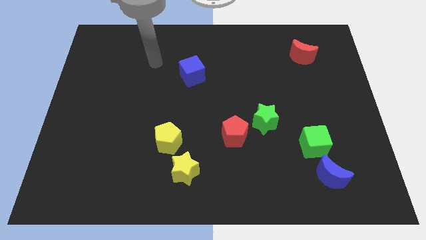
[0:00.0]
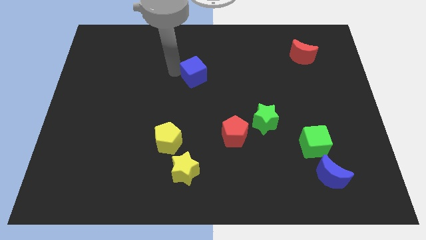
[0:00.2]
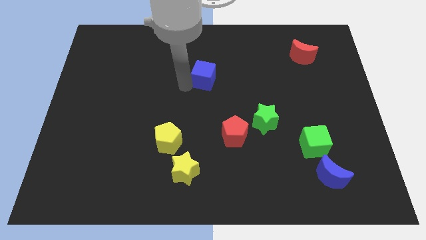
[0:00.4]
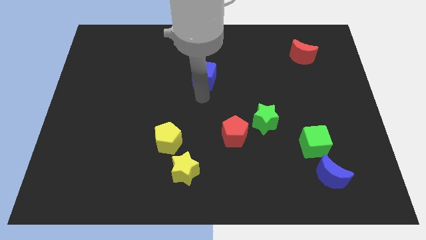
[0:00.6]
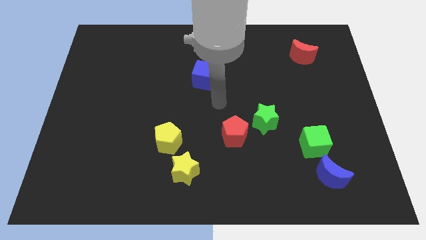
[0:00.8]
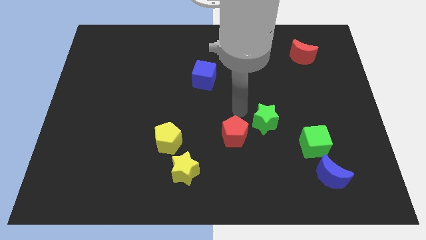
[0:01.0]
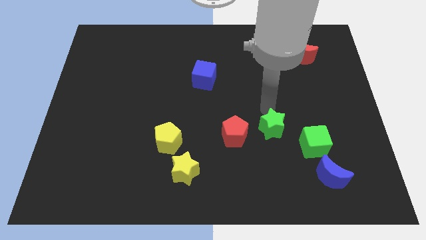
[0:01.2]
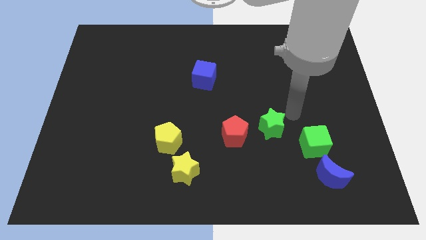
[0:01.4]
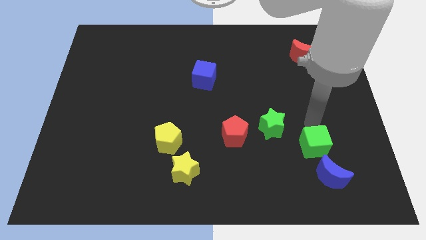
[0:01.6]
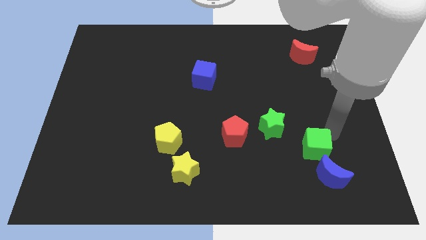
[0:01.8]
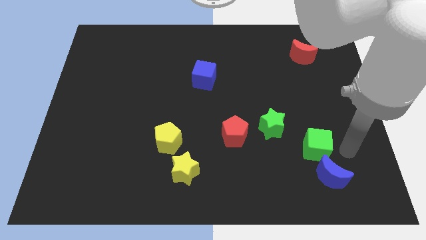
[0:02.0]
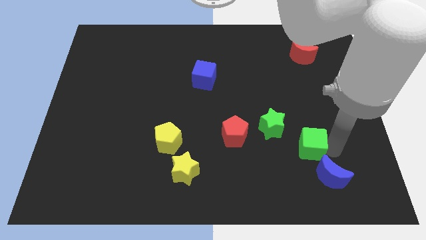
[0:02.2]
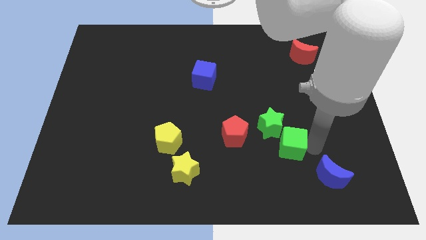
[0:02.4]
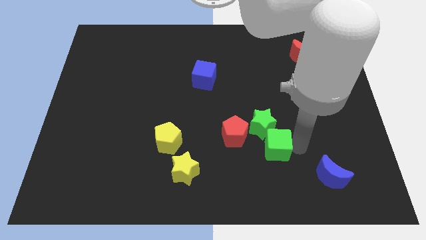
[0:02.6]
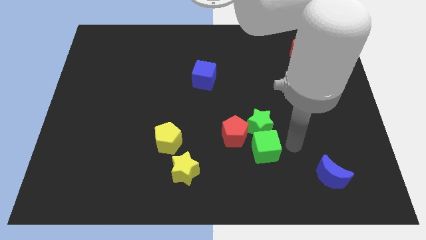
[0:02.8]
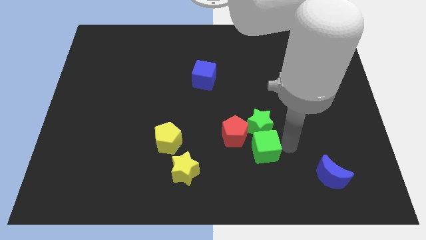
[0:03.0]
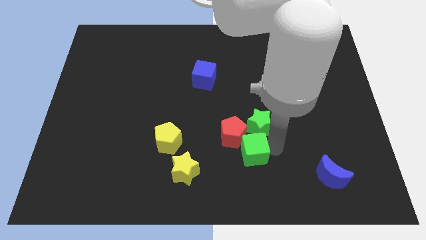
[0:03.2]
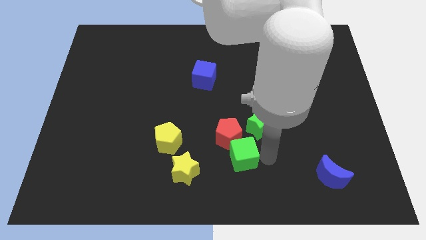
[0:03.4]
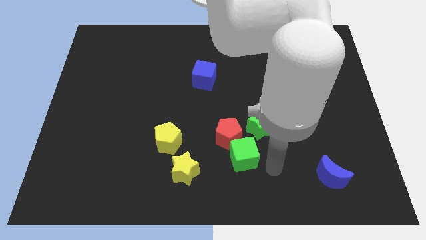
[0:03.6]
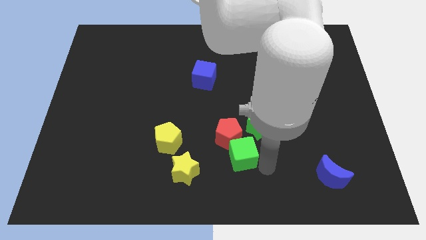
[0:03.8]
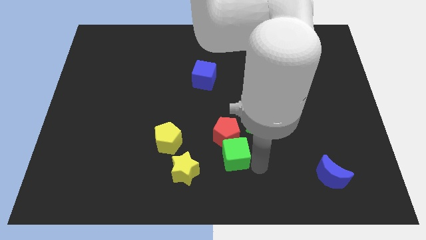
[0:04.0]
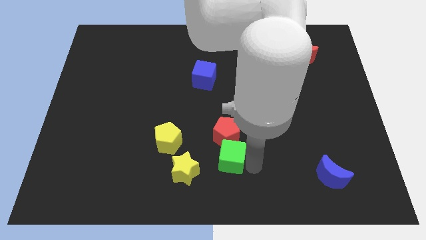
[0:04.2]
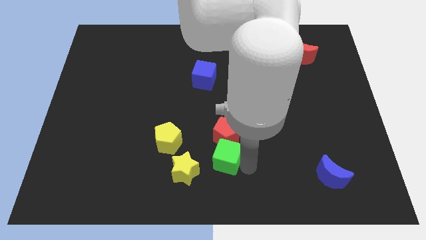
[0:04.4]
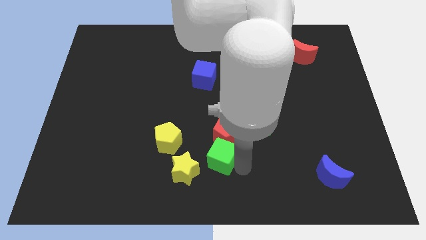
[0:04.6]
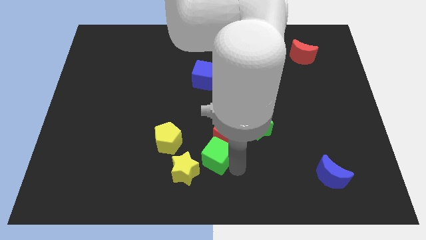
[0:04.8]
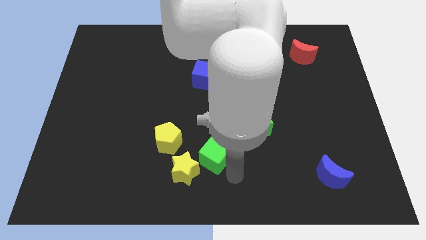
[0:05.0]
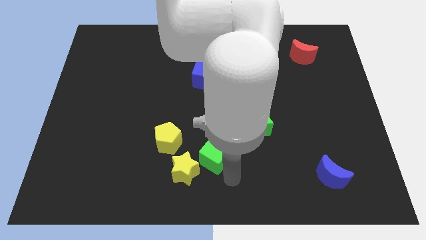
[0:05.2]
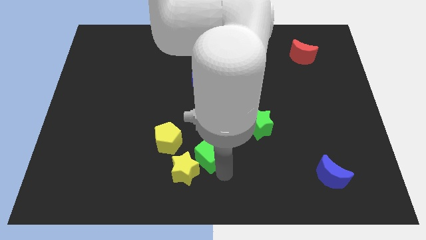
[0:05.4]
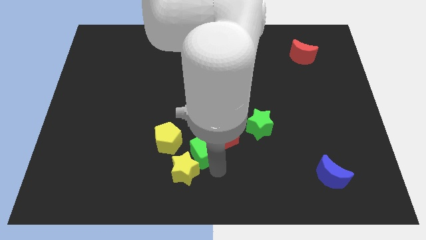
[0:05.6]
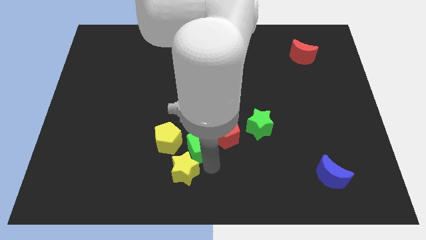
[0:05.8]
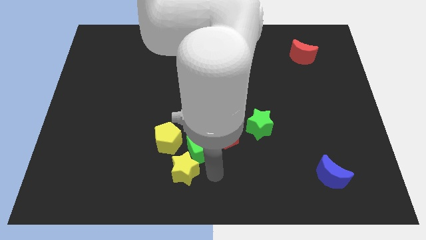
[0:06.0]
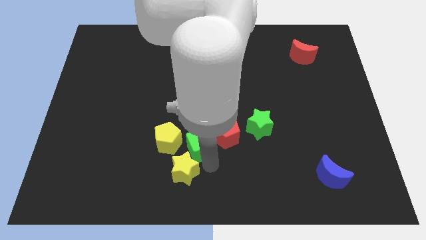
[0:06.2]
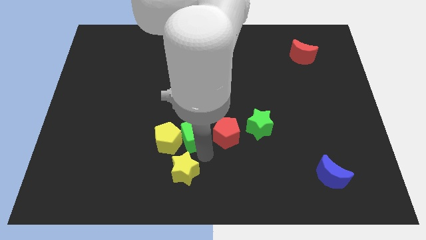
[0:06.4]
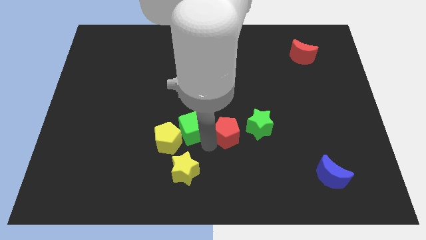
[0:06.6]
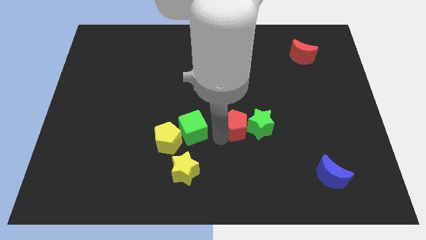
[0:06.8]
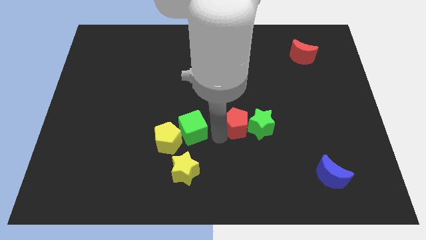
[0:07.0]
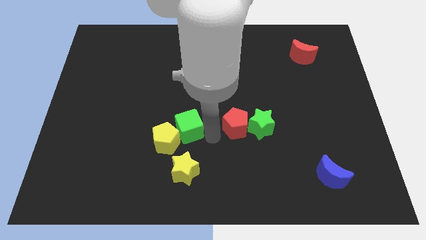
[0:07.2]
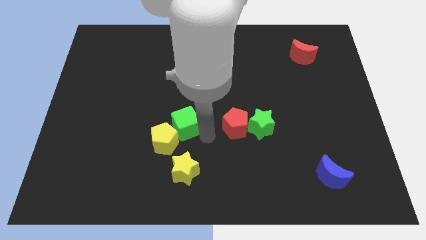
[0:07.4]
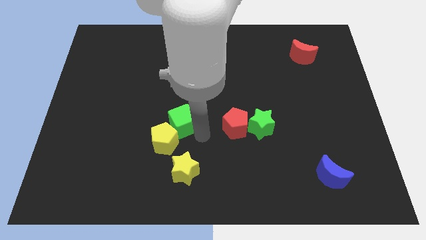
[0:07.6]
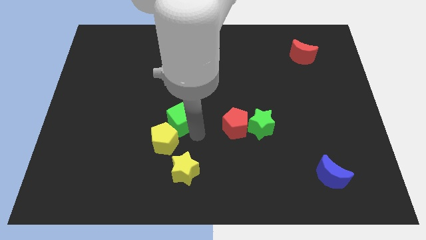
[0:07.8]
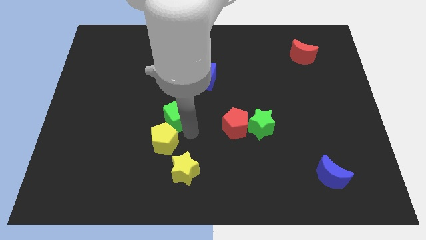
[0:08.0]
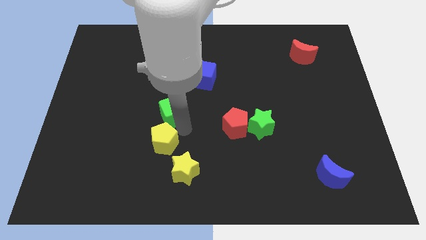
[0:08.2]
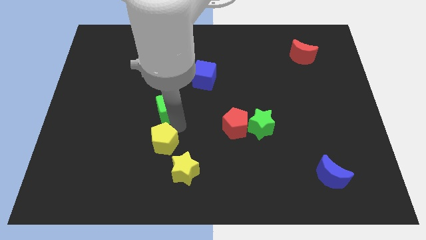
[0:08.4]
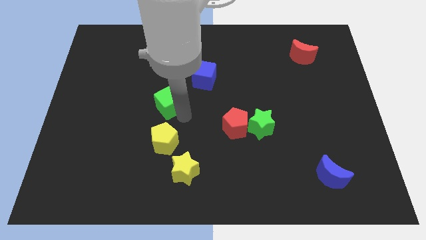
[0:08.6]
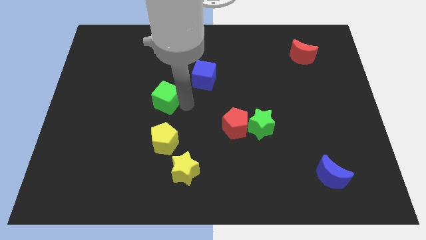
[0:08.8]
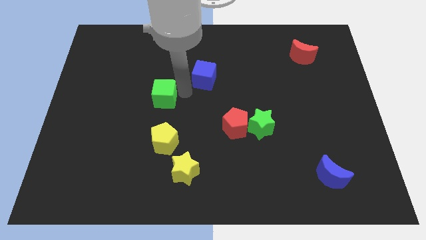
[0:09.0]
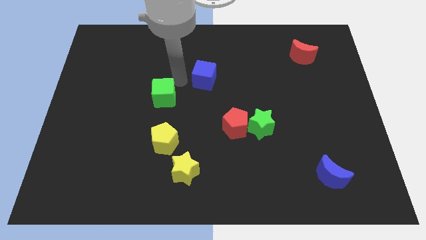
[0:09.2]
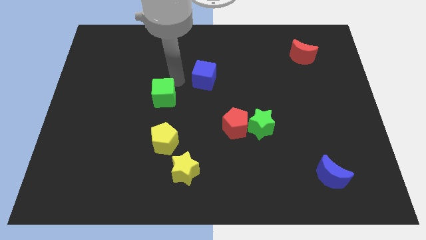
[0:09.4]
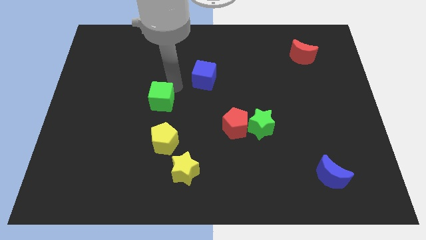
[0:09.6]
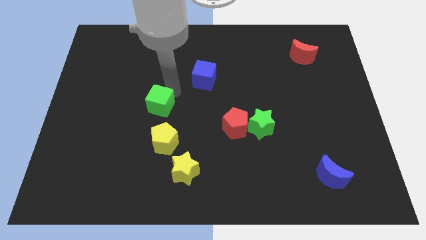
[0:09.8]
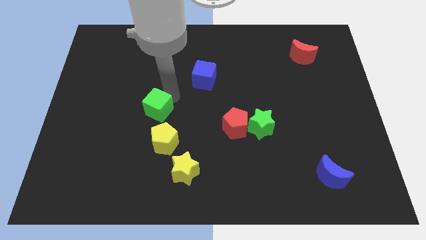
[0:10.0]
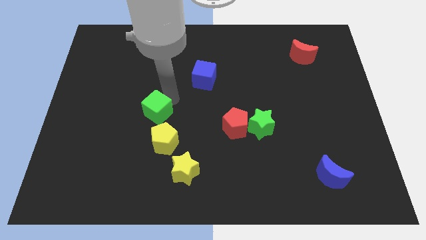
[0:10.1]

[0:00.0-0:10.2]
slide the green cube diagonally up and to the left of the yellow pentagon

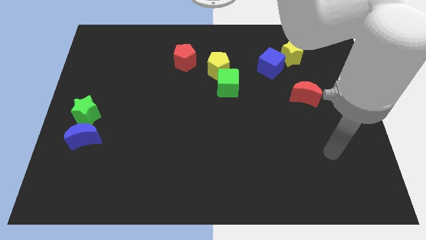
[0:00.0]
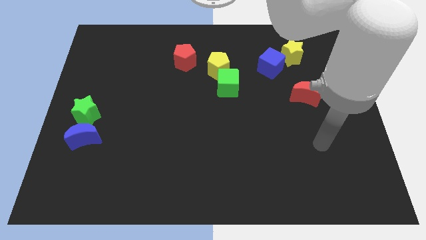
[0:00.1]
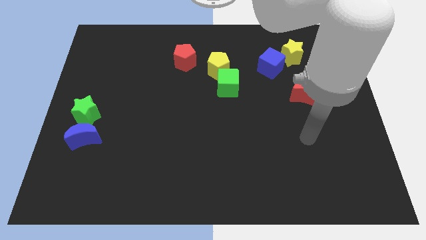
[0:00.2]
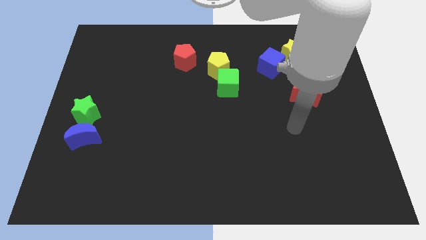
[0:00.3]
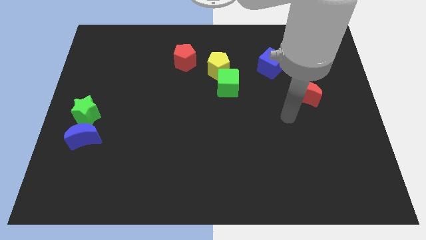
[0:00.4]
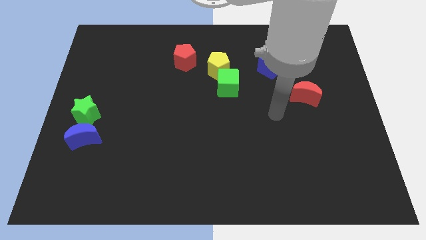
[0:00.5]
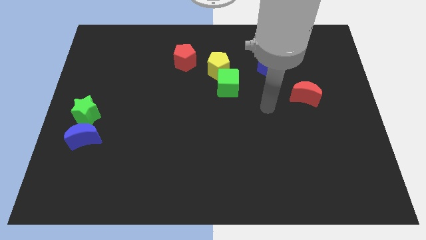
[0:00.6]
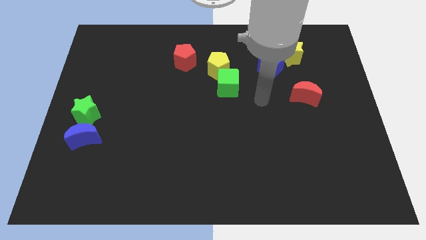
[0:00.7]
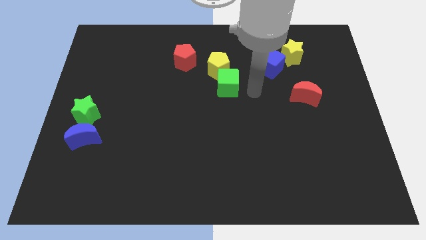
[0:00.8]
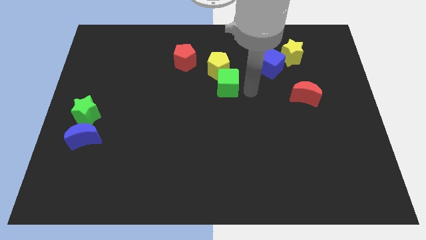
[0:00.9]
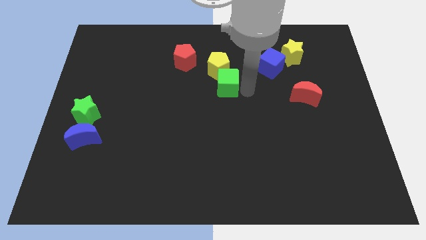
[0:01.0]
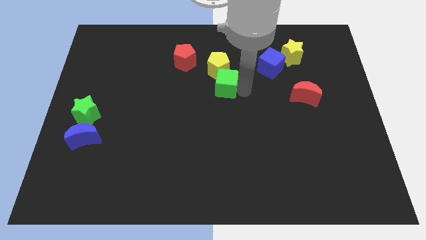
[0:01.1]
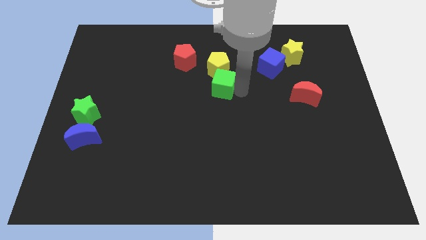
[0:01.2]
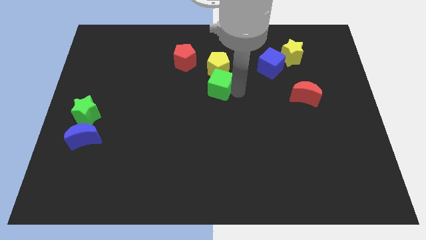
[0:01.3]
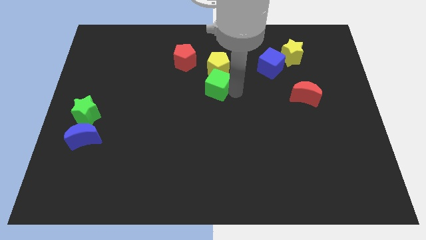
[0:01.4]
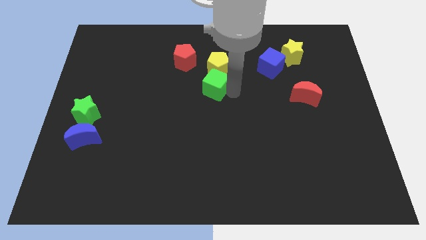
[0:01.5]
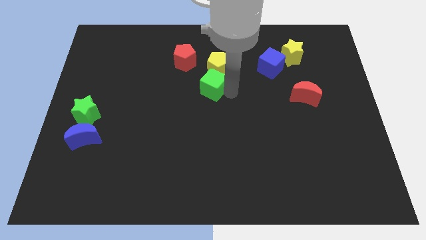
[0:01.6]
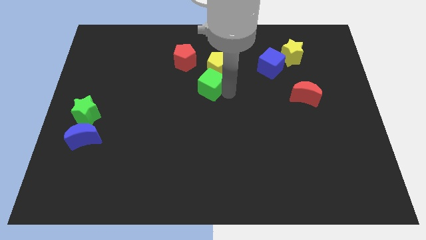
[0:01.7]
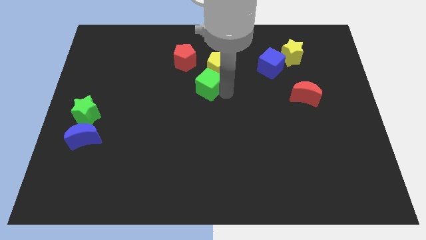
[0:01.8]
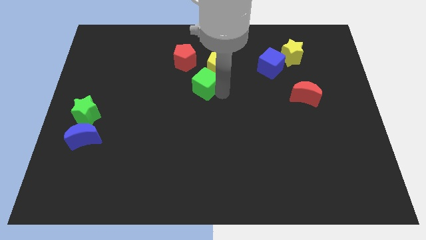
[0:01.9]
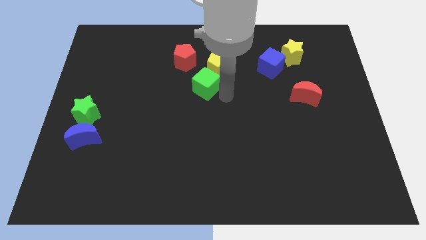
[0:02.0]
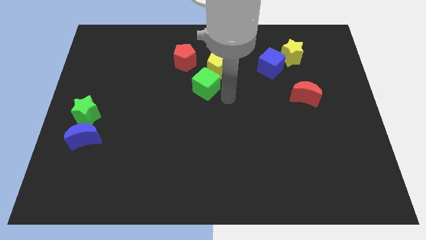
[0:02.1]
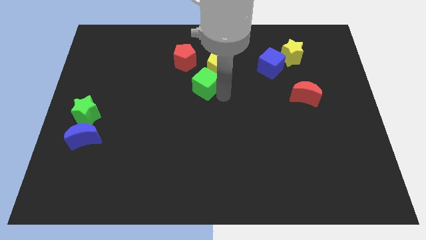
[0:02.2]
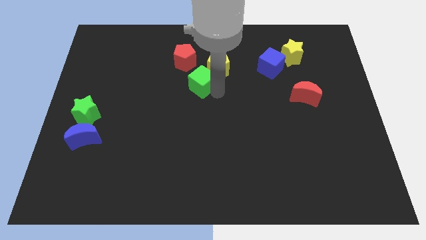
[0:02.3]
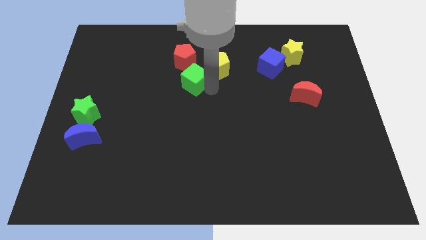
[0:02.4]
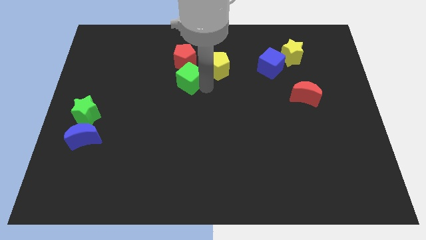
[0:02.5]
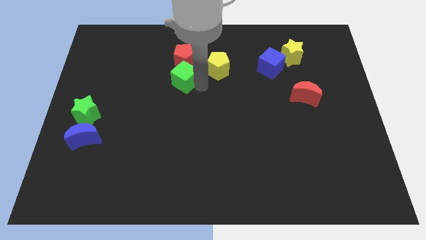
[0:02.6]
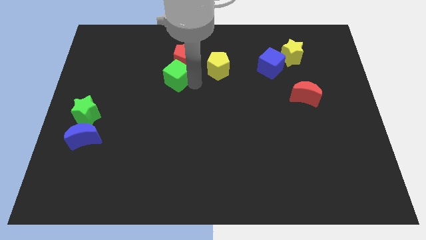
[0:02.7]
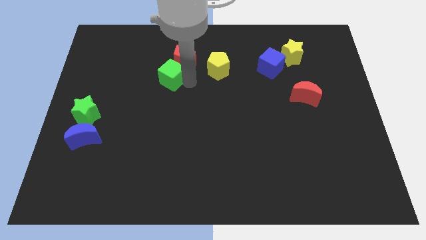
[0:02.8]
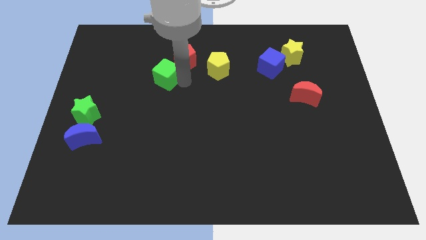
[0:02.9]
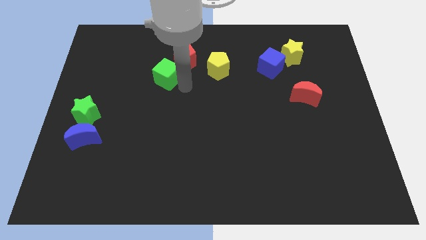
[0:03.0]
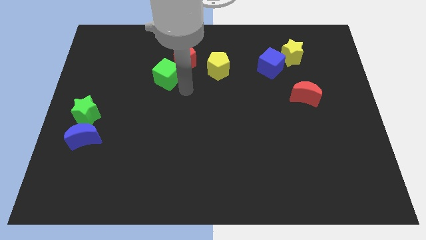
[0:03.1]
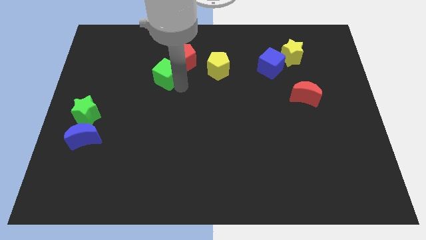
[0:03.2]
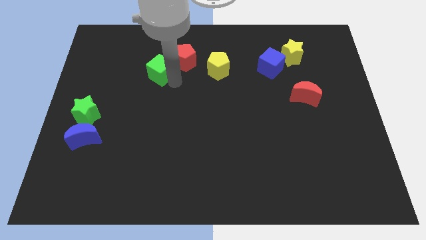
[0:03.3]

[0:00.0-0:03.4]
move the green cube left of the red pentagon
